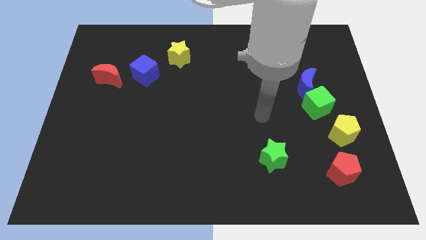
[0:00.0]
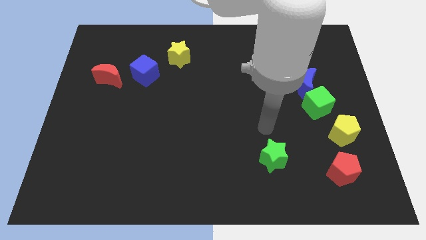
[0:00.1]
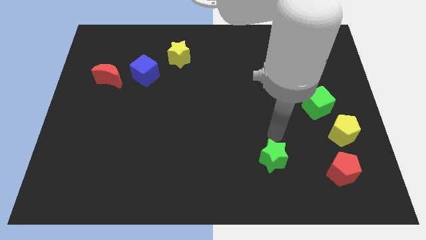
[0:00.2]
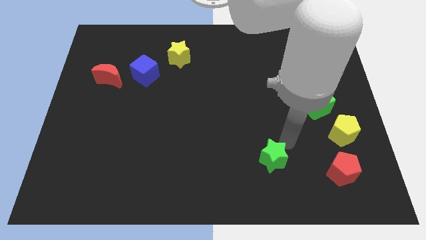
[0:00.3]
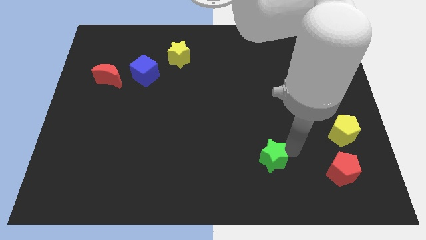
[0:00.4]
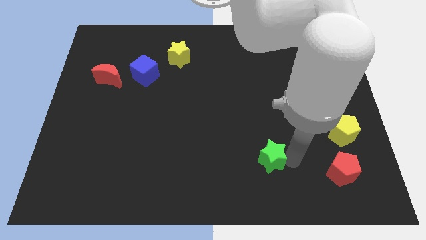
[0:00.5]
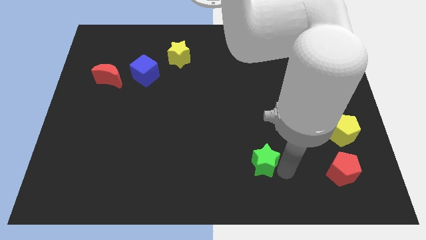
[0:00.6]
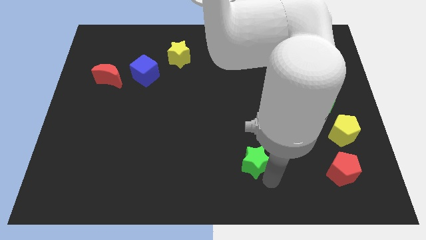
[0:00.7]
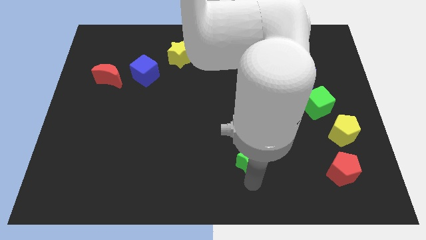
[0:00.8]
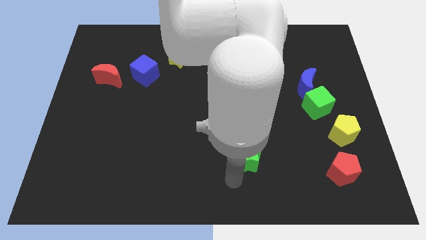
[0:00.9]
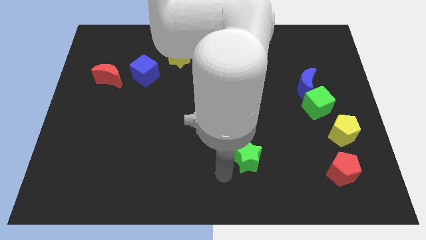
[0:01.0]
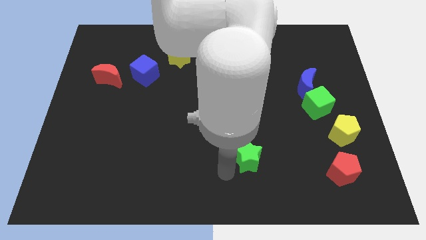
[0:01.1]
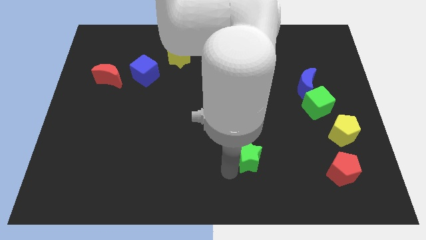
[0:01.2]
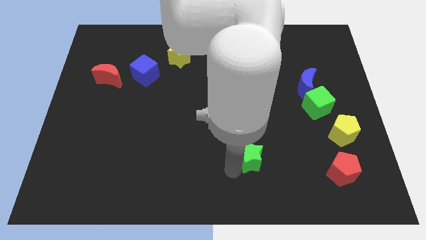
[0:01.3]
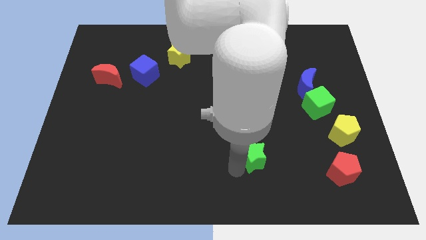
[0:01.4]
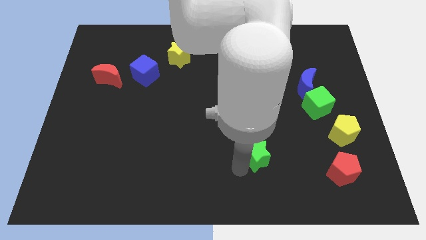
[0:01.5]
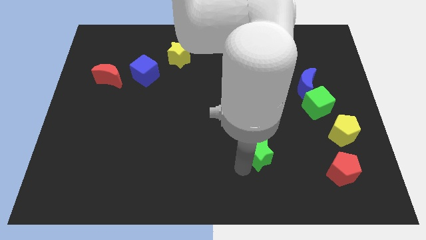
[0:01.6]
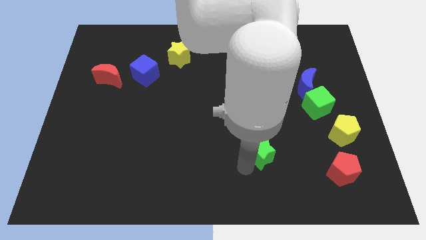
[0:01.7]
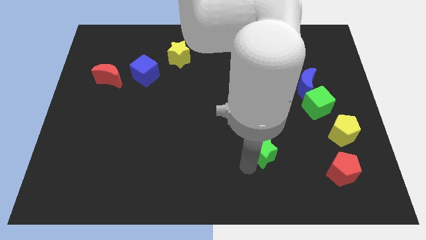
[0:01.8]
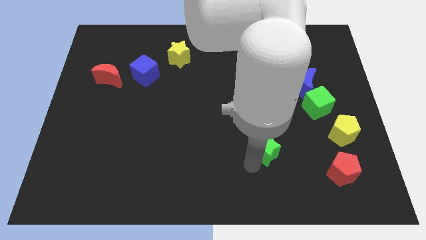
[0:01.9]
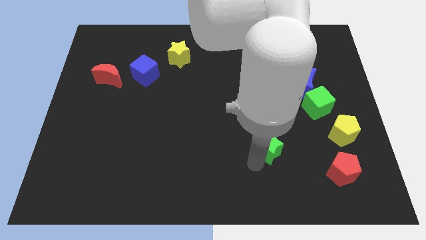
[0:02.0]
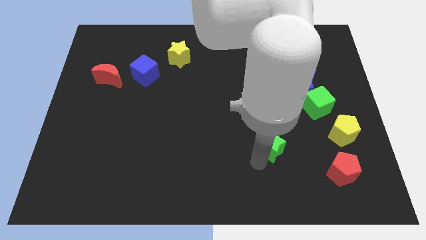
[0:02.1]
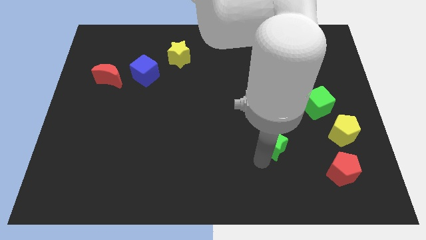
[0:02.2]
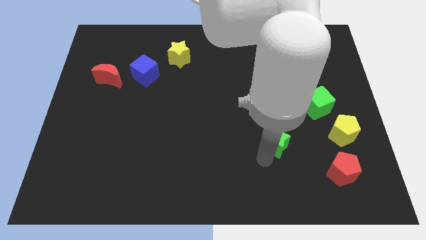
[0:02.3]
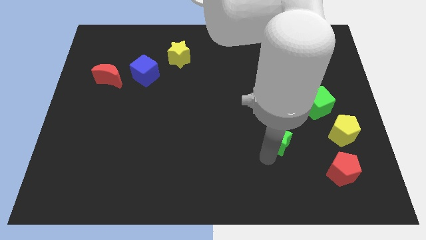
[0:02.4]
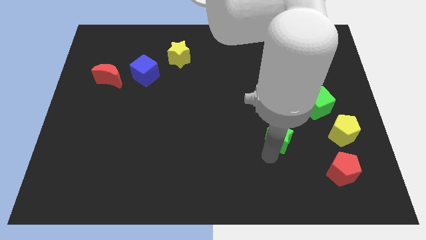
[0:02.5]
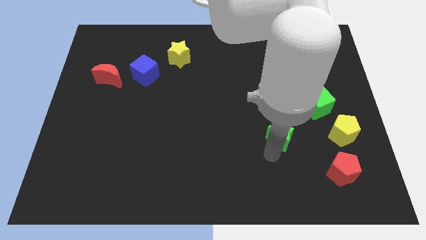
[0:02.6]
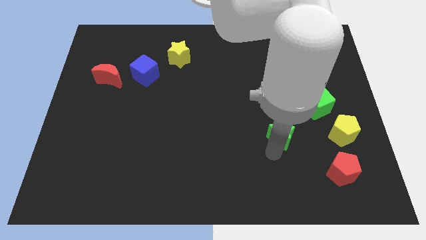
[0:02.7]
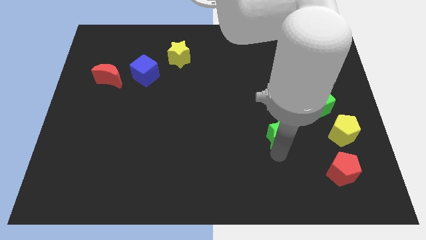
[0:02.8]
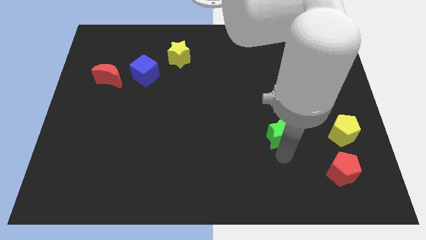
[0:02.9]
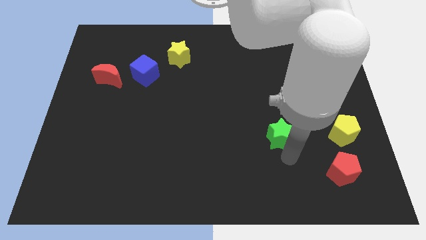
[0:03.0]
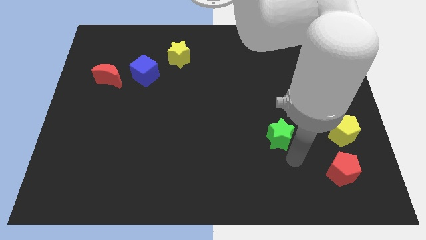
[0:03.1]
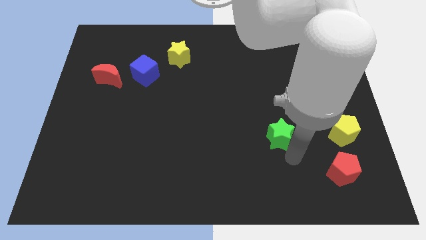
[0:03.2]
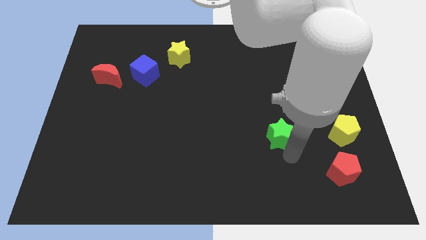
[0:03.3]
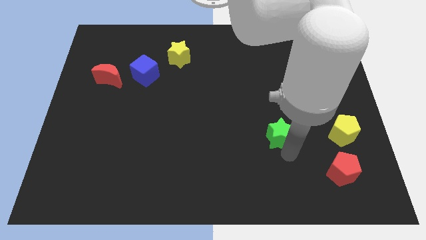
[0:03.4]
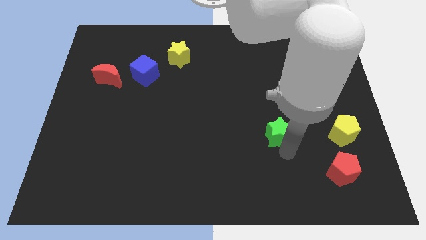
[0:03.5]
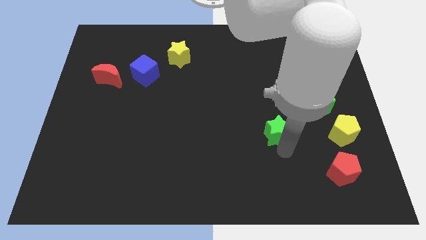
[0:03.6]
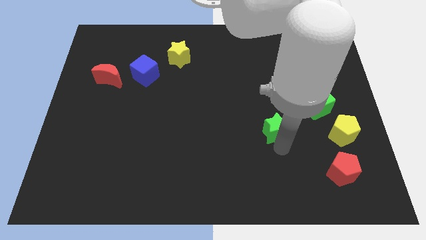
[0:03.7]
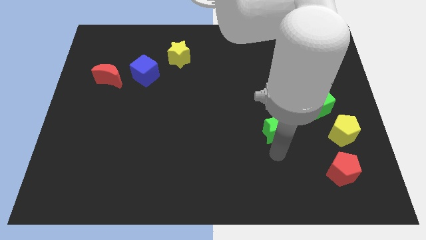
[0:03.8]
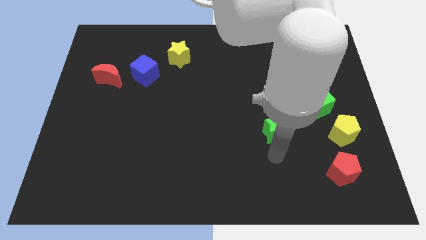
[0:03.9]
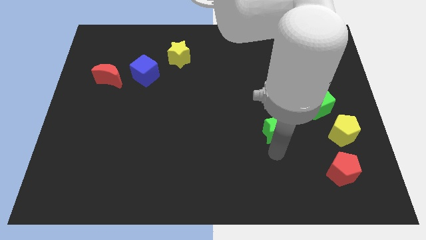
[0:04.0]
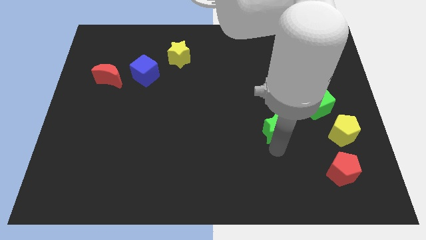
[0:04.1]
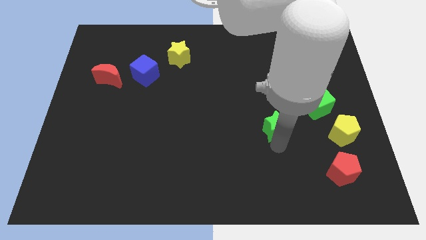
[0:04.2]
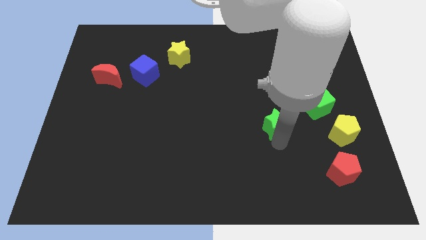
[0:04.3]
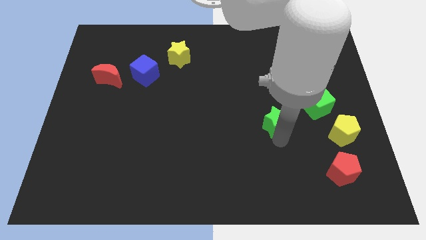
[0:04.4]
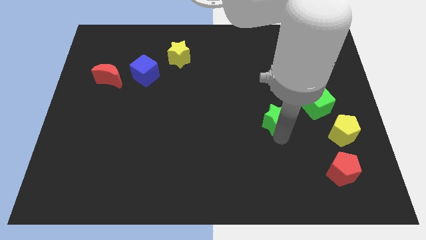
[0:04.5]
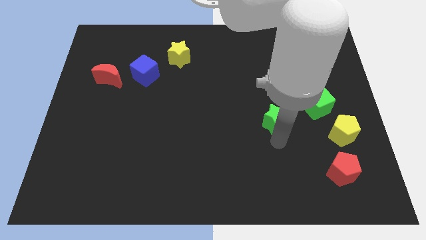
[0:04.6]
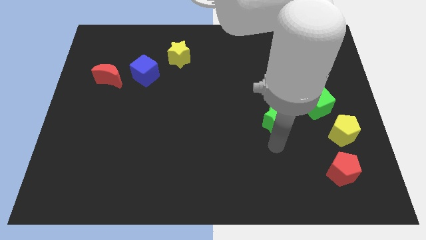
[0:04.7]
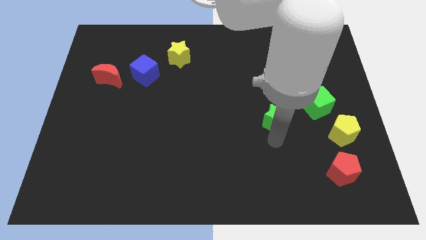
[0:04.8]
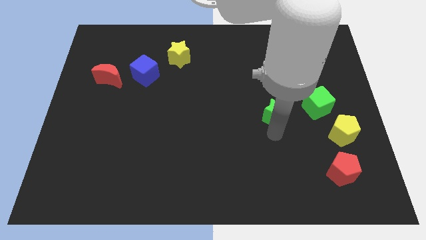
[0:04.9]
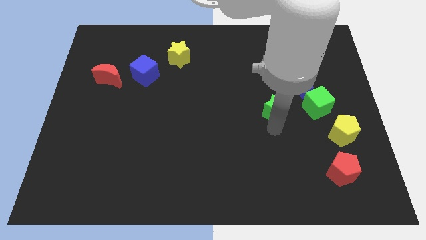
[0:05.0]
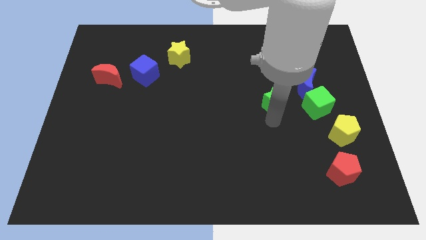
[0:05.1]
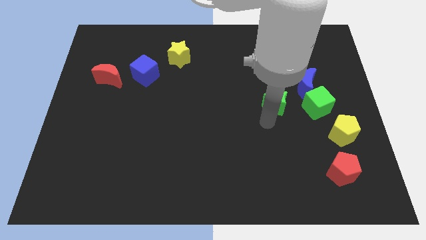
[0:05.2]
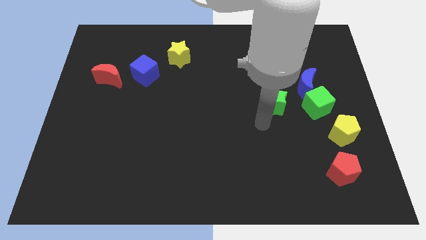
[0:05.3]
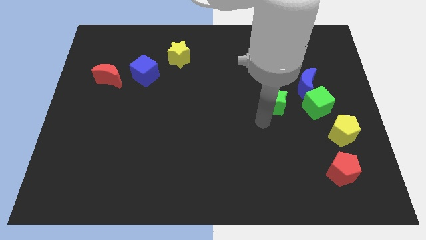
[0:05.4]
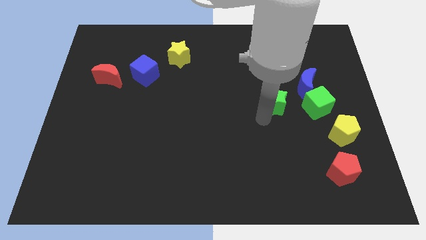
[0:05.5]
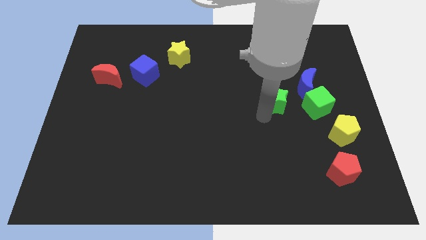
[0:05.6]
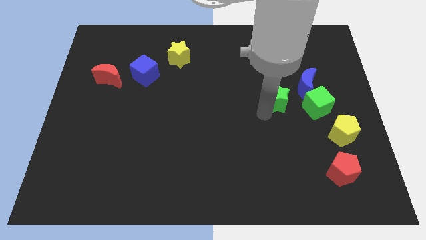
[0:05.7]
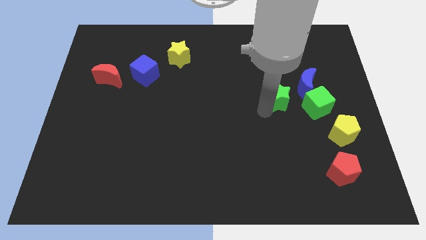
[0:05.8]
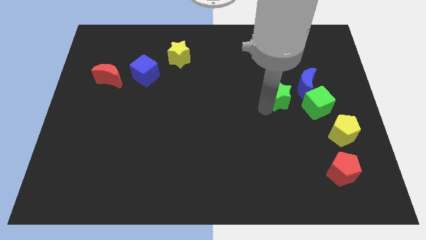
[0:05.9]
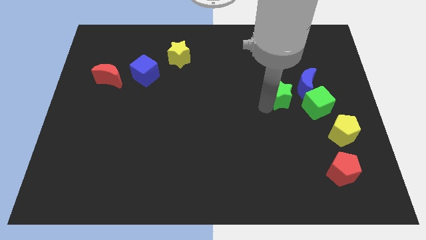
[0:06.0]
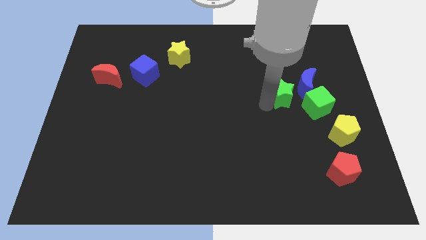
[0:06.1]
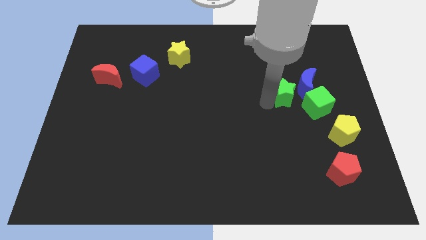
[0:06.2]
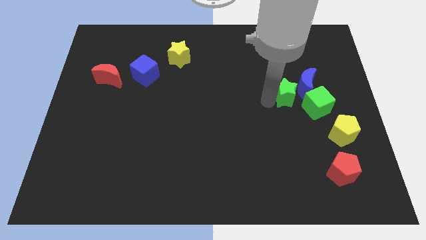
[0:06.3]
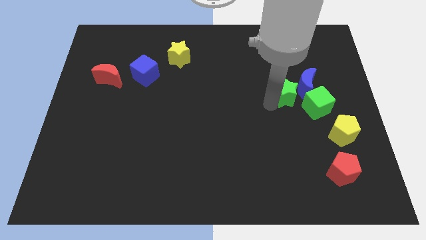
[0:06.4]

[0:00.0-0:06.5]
put the green star next to the blue moon
